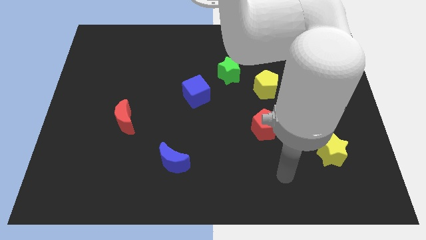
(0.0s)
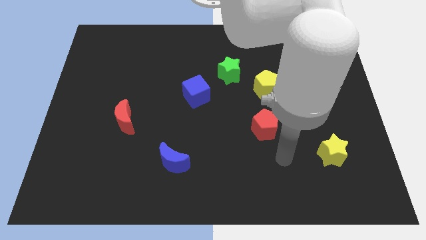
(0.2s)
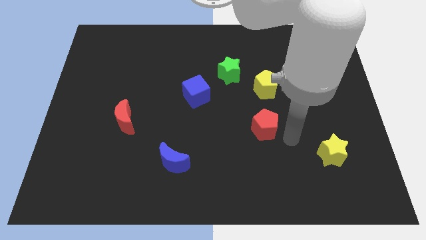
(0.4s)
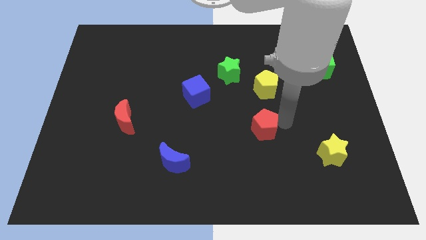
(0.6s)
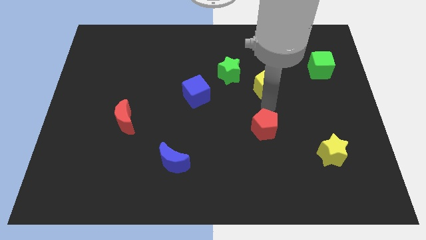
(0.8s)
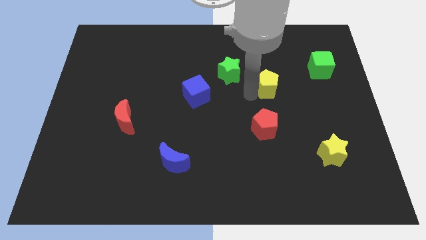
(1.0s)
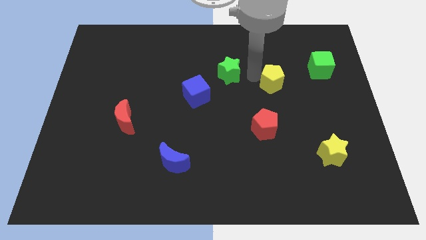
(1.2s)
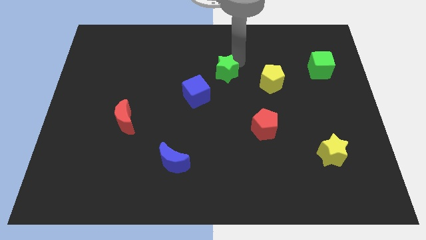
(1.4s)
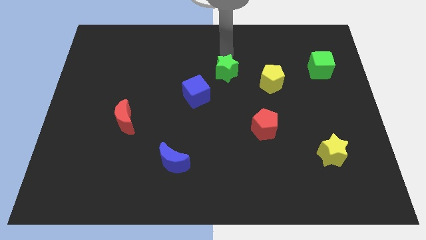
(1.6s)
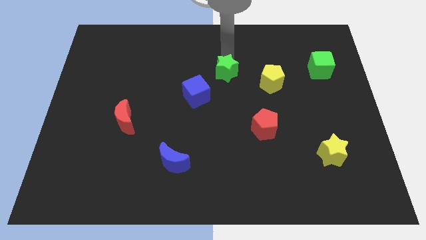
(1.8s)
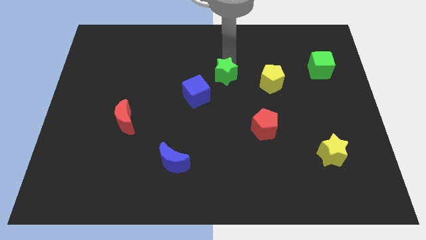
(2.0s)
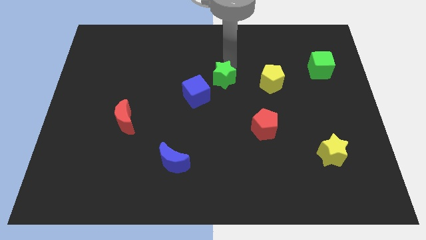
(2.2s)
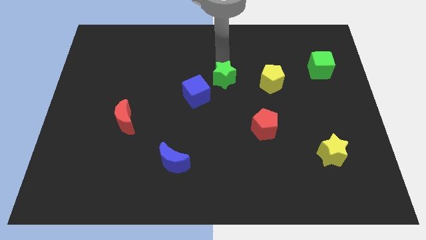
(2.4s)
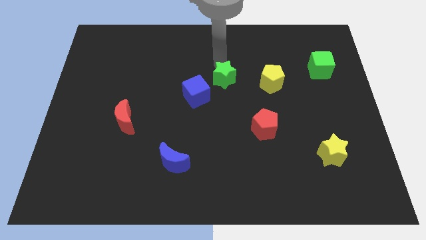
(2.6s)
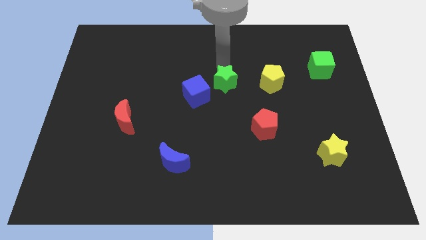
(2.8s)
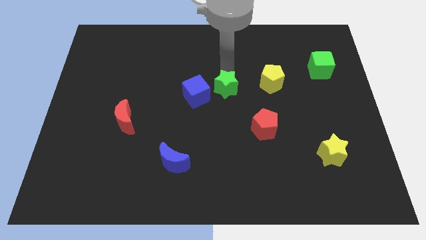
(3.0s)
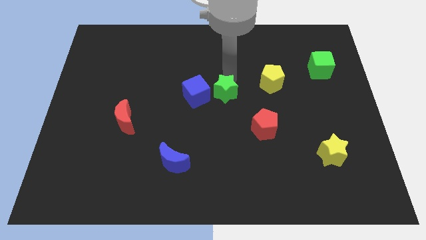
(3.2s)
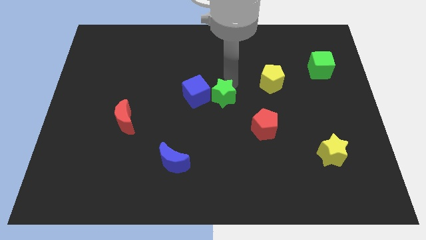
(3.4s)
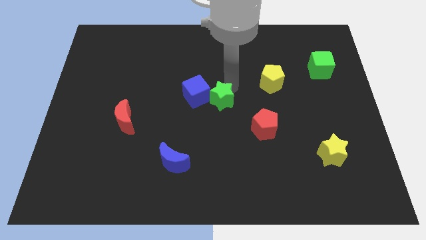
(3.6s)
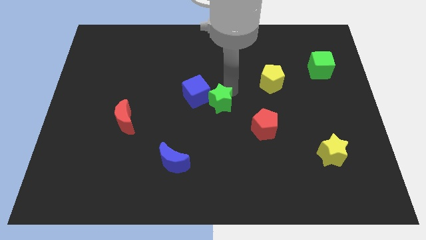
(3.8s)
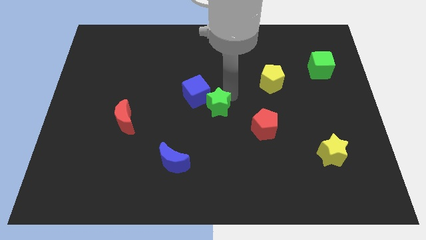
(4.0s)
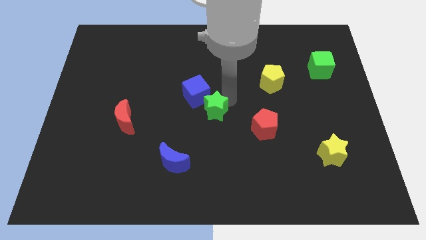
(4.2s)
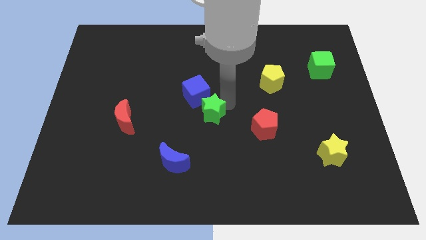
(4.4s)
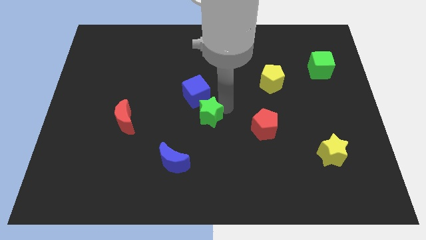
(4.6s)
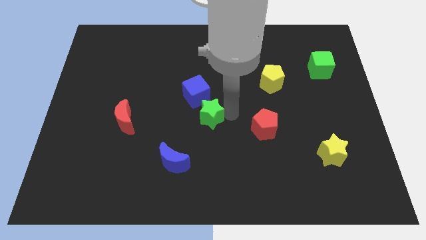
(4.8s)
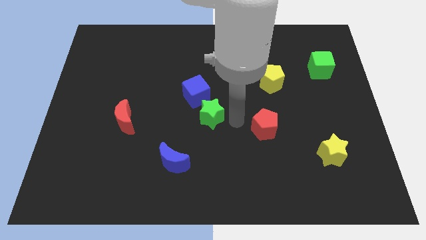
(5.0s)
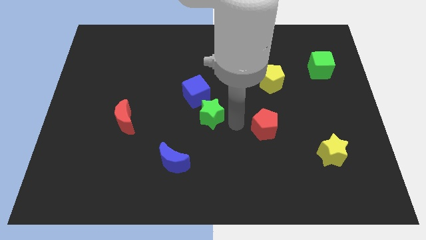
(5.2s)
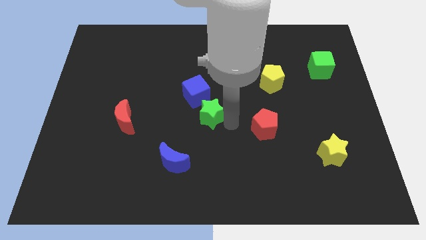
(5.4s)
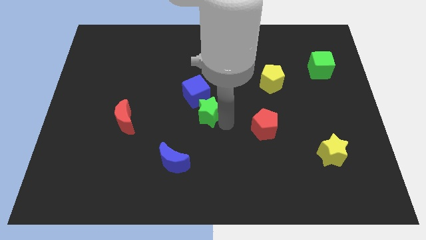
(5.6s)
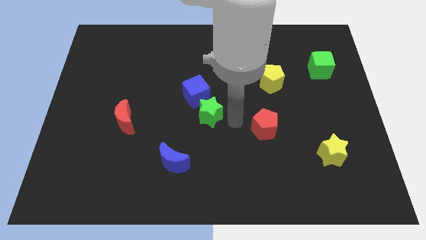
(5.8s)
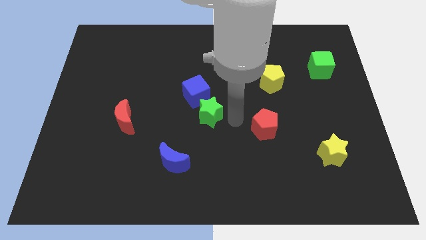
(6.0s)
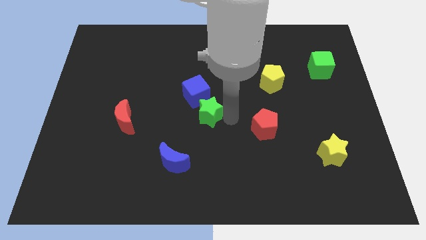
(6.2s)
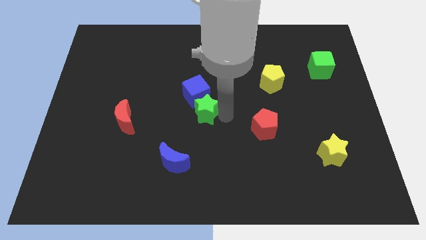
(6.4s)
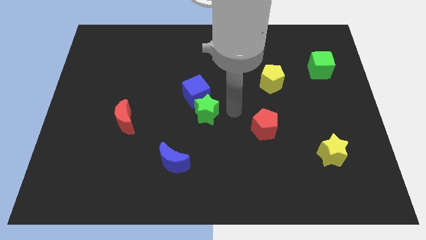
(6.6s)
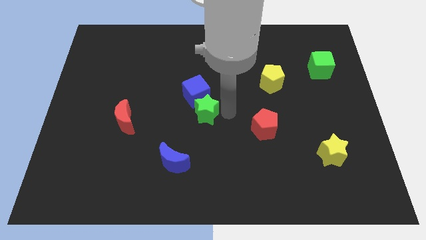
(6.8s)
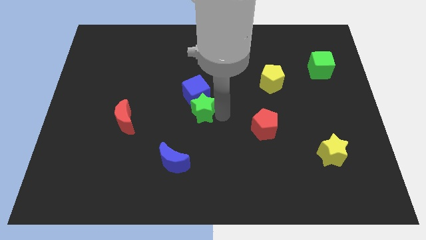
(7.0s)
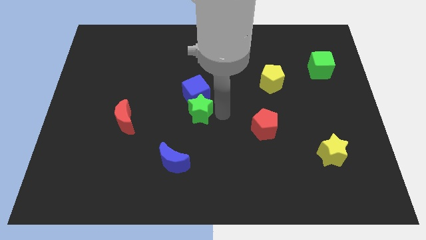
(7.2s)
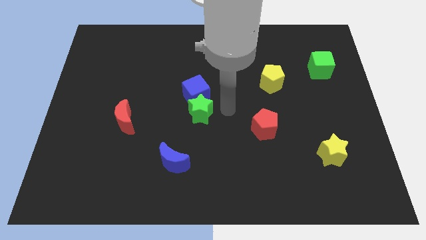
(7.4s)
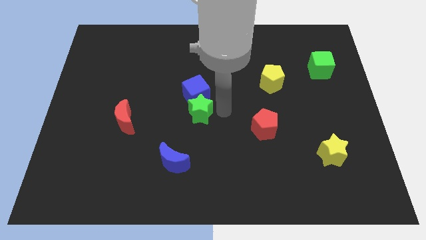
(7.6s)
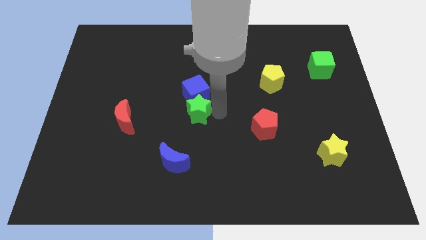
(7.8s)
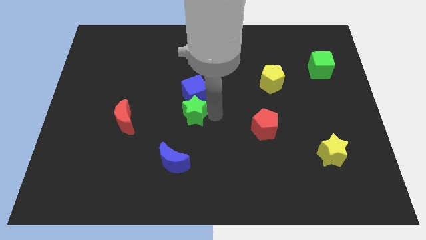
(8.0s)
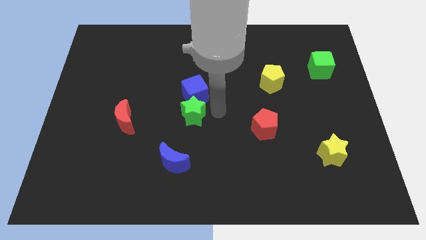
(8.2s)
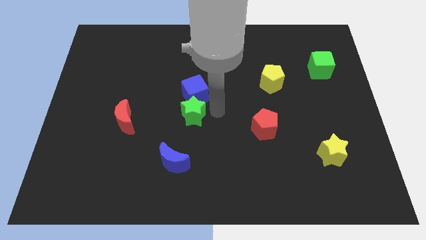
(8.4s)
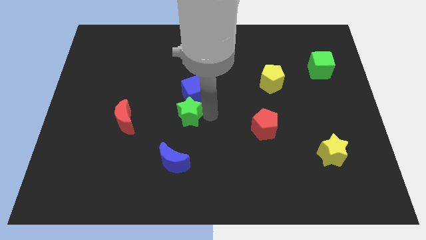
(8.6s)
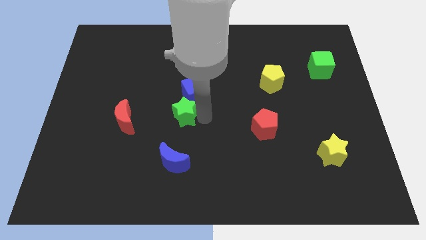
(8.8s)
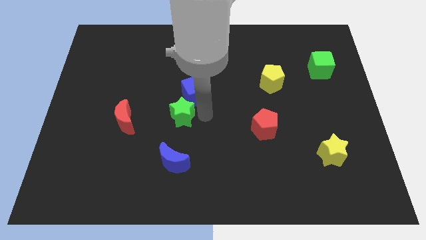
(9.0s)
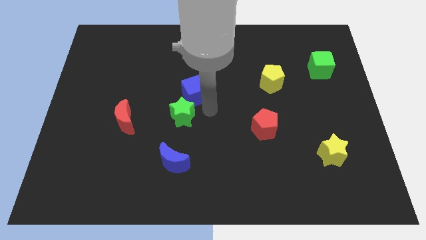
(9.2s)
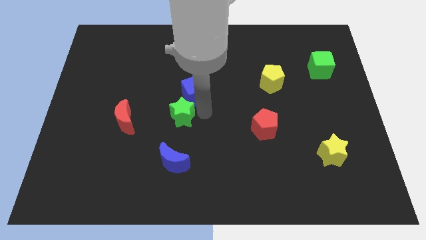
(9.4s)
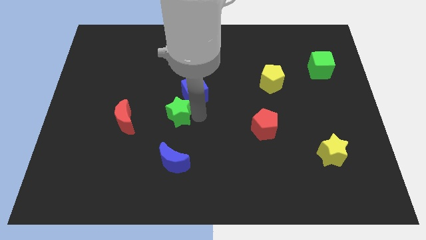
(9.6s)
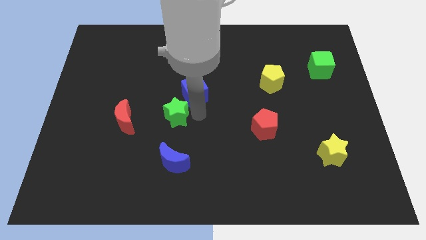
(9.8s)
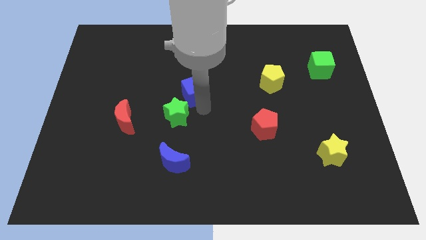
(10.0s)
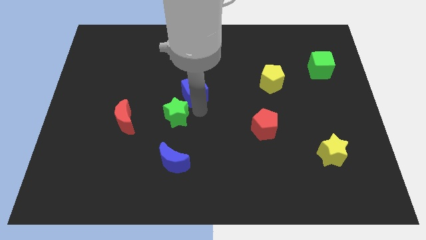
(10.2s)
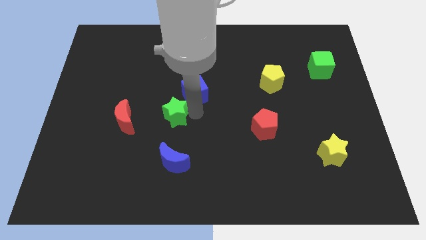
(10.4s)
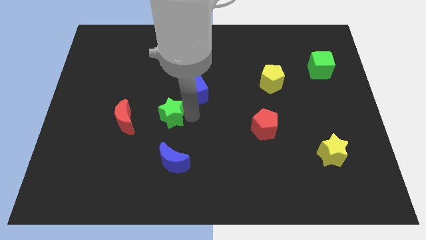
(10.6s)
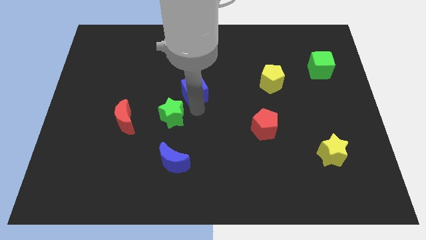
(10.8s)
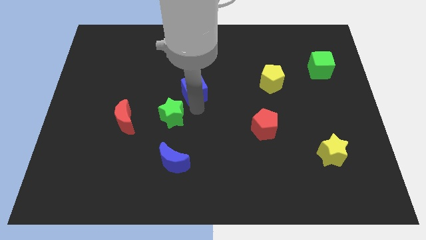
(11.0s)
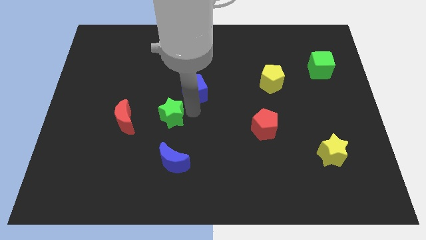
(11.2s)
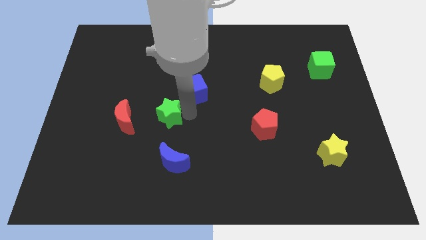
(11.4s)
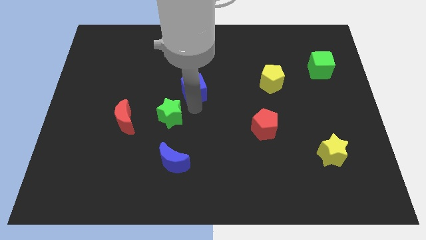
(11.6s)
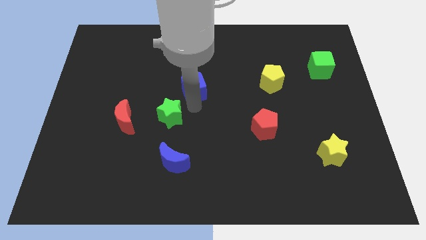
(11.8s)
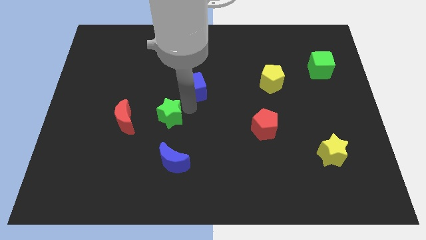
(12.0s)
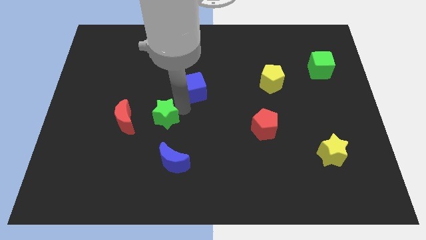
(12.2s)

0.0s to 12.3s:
move the green star downwards and to the left diagonally

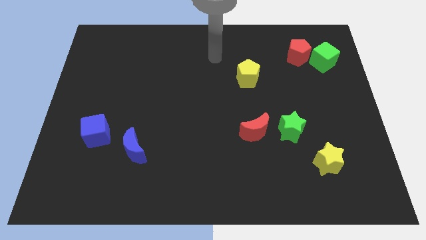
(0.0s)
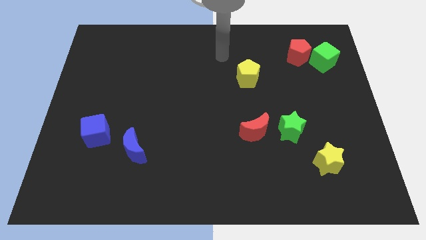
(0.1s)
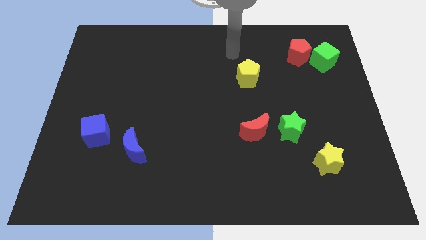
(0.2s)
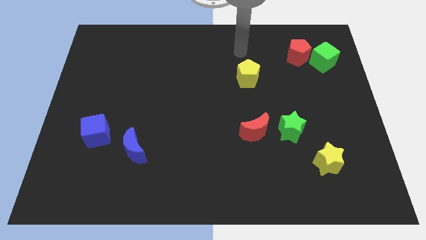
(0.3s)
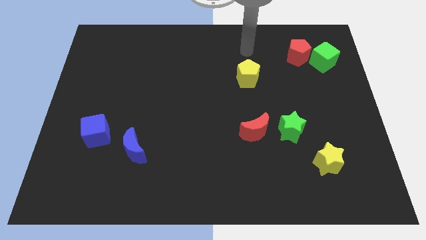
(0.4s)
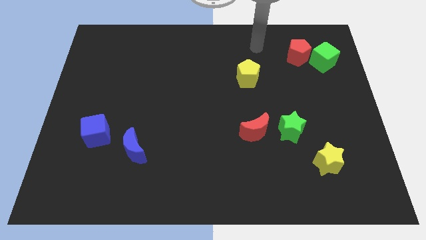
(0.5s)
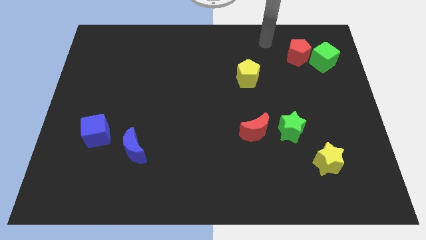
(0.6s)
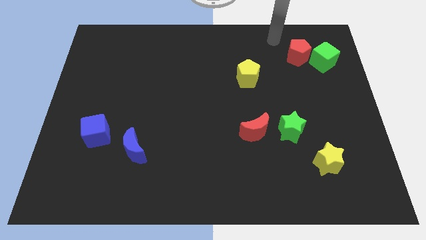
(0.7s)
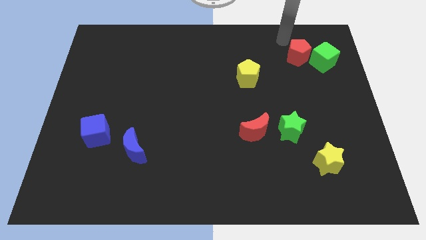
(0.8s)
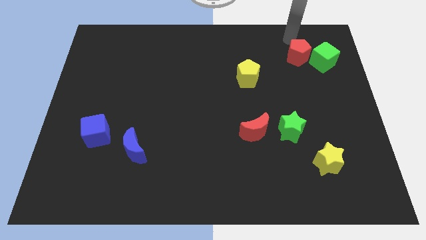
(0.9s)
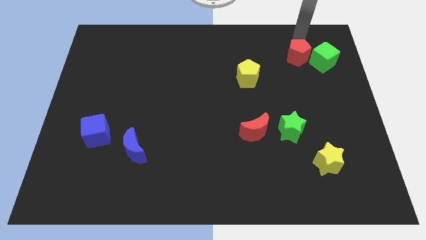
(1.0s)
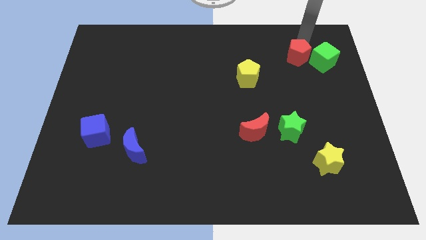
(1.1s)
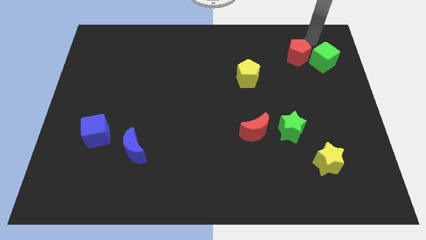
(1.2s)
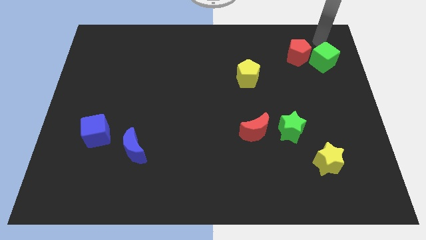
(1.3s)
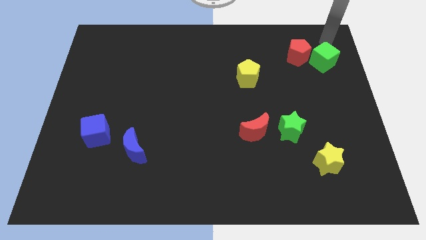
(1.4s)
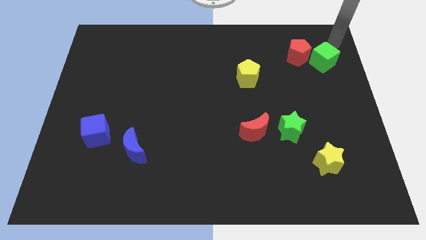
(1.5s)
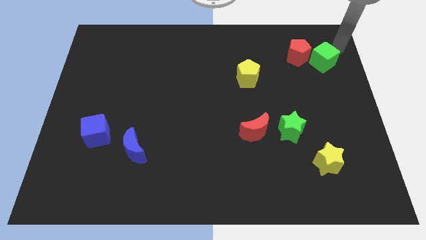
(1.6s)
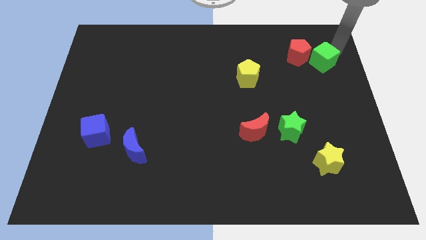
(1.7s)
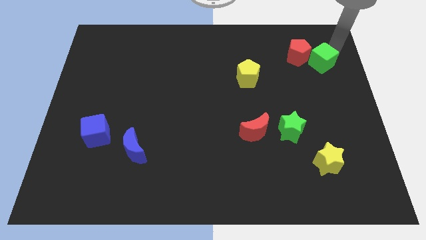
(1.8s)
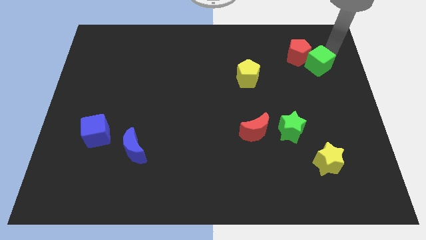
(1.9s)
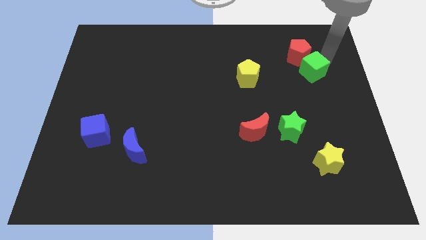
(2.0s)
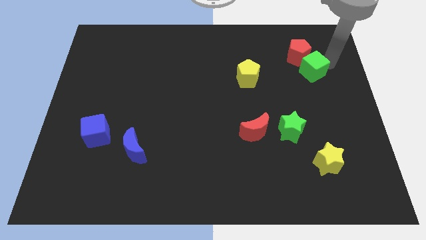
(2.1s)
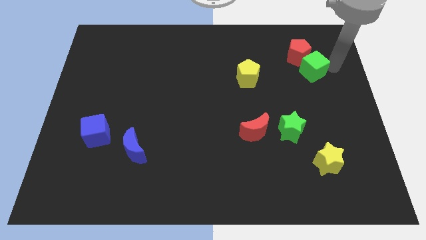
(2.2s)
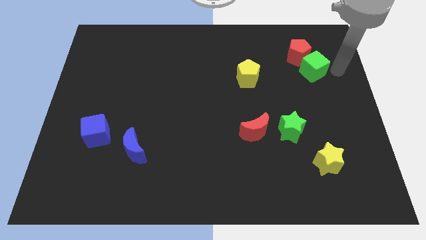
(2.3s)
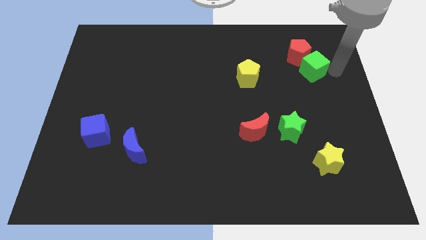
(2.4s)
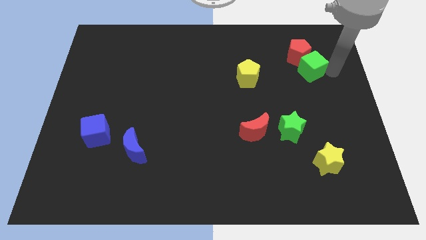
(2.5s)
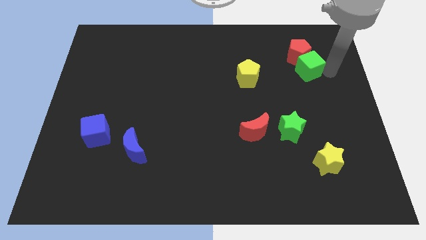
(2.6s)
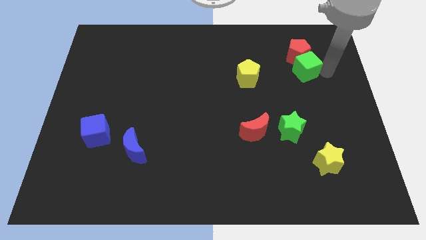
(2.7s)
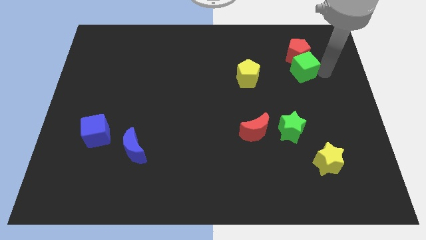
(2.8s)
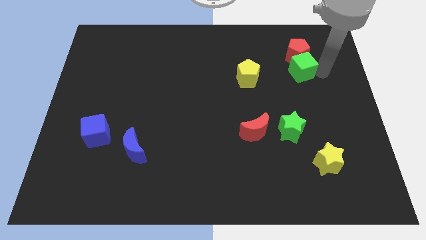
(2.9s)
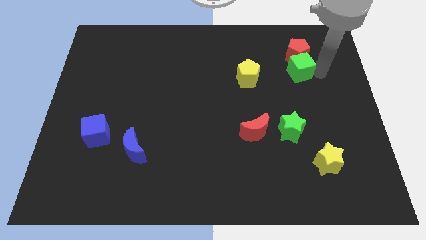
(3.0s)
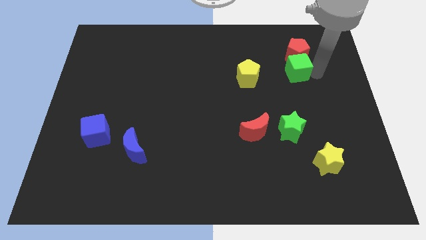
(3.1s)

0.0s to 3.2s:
slightly push the green cube left
